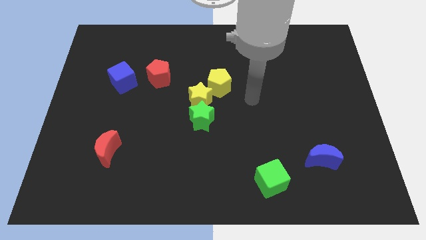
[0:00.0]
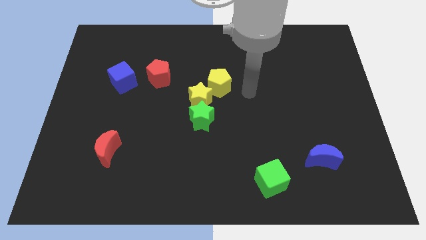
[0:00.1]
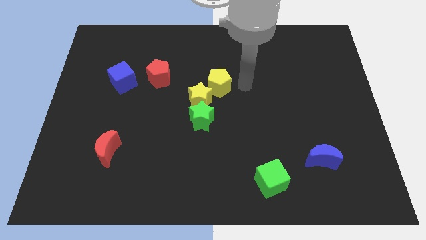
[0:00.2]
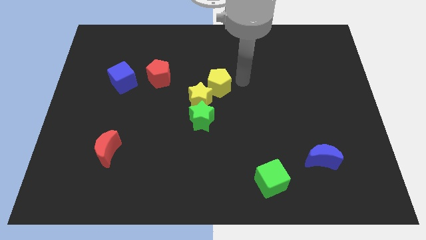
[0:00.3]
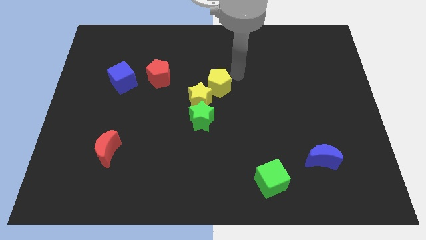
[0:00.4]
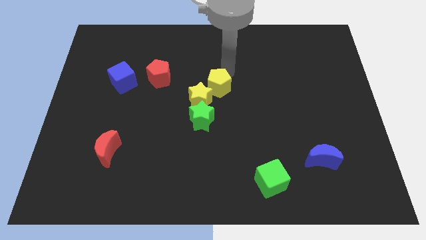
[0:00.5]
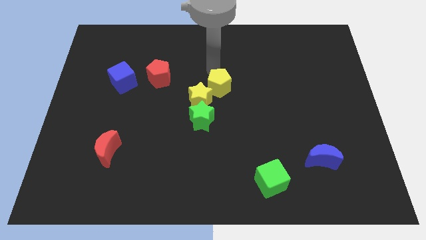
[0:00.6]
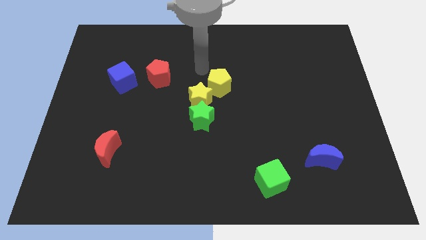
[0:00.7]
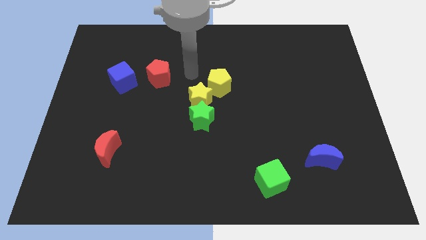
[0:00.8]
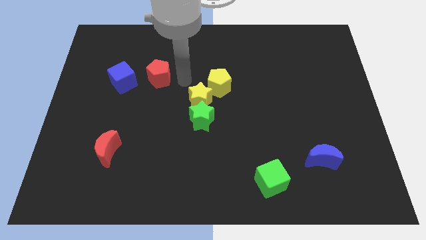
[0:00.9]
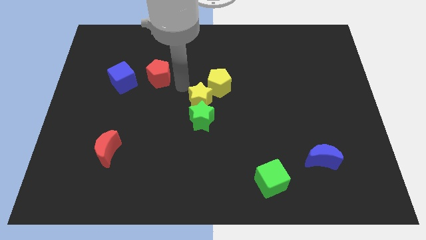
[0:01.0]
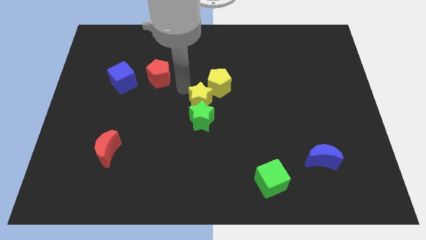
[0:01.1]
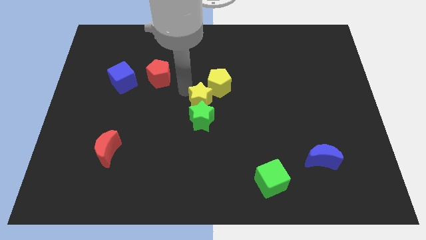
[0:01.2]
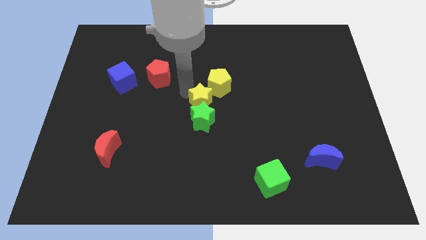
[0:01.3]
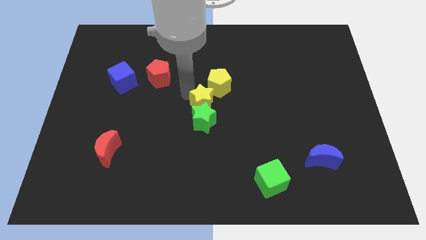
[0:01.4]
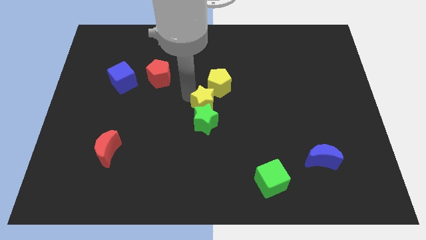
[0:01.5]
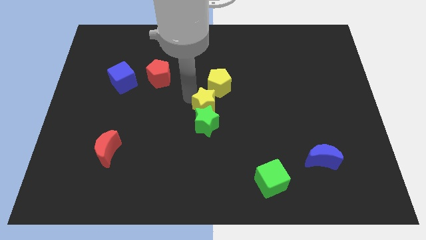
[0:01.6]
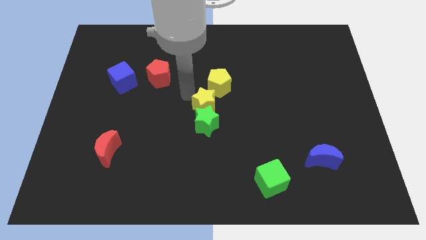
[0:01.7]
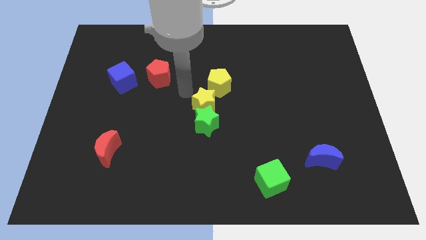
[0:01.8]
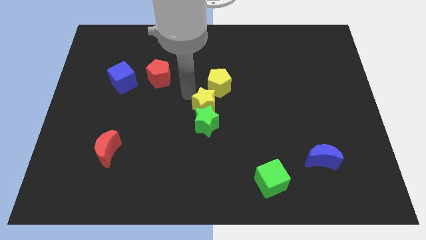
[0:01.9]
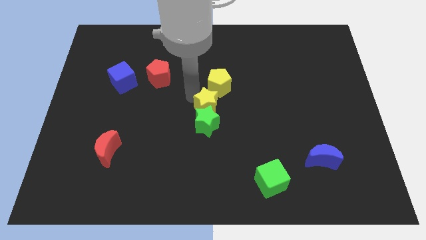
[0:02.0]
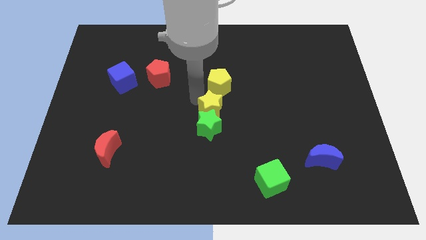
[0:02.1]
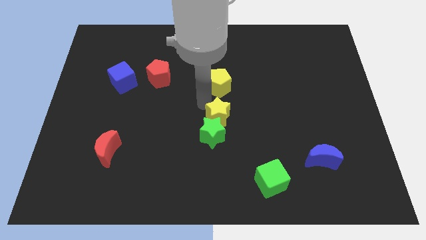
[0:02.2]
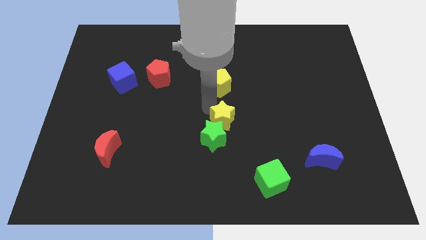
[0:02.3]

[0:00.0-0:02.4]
push the yellow star down and then to the right a bit

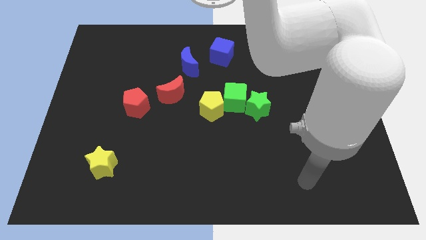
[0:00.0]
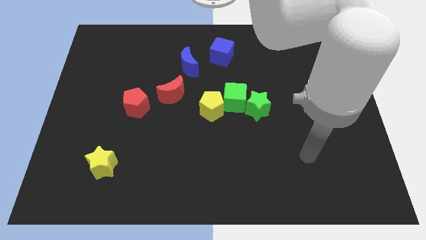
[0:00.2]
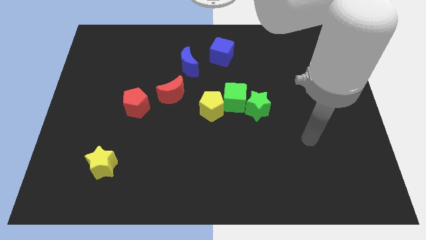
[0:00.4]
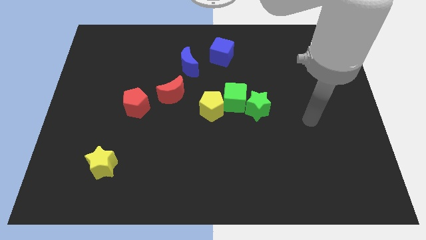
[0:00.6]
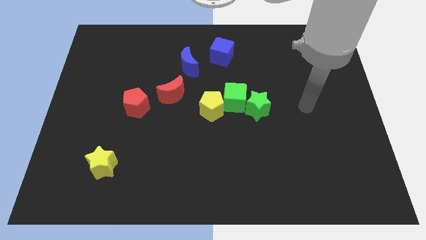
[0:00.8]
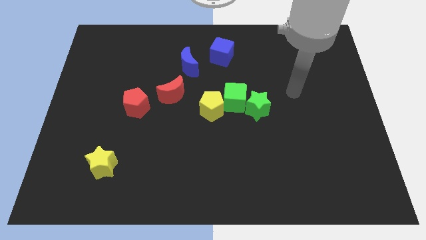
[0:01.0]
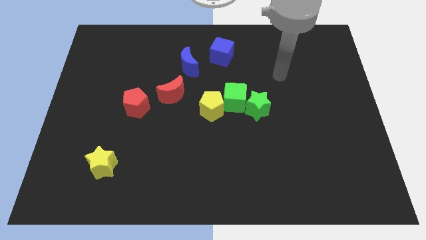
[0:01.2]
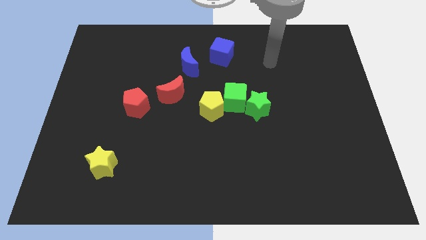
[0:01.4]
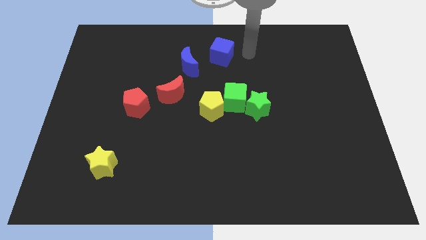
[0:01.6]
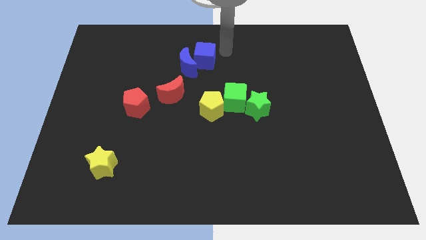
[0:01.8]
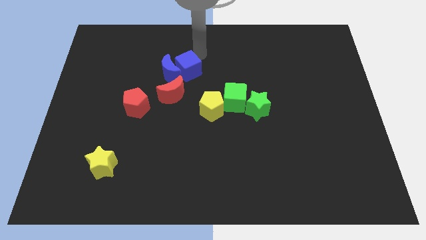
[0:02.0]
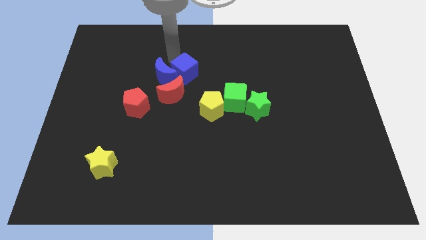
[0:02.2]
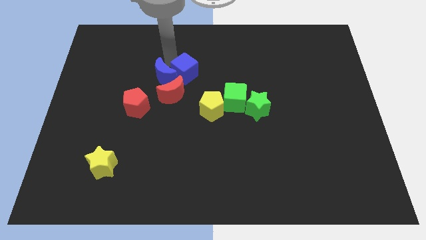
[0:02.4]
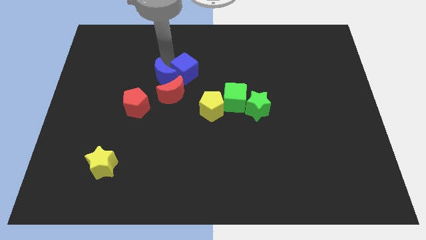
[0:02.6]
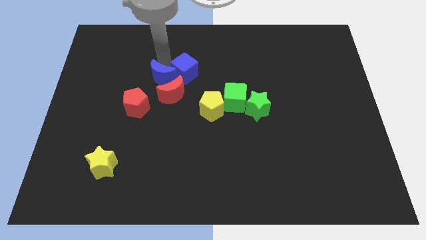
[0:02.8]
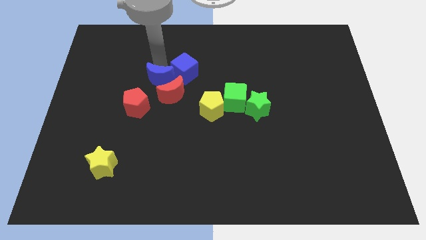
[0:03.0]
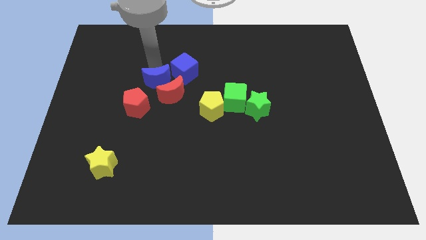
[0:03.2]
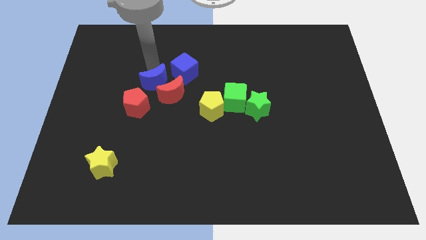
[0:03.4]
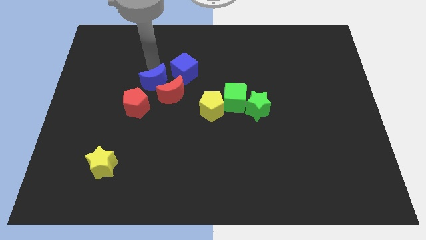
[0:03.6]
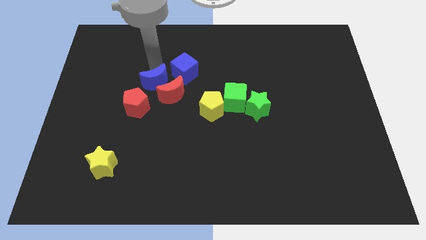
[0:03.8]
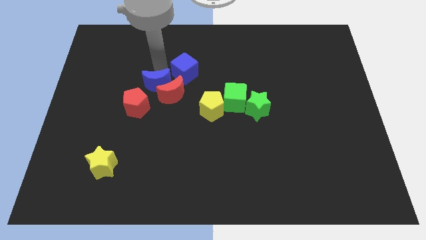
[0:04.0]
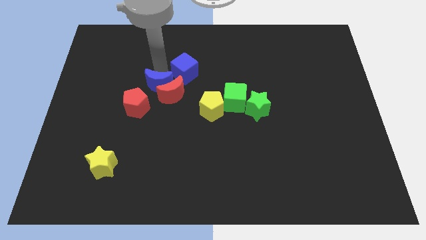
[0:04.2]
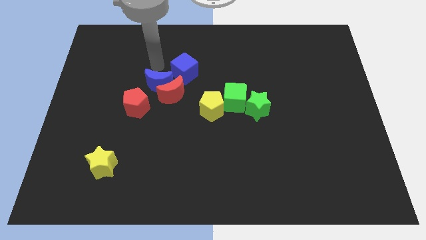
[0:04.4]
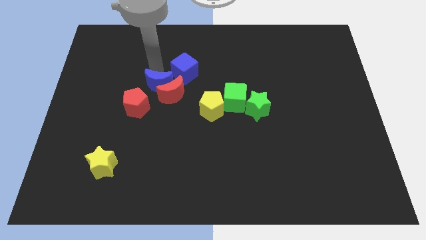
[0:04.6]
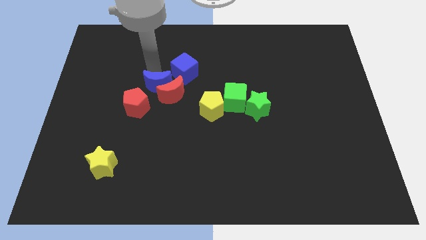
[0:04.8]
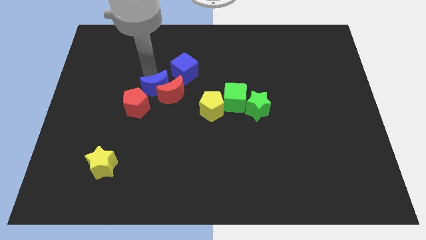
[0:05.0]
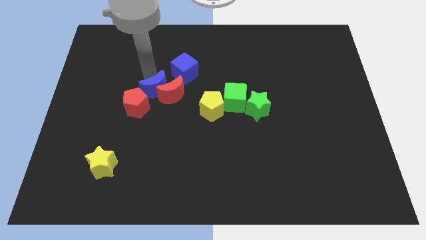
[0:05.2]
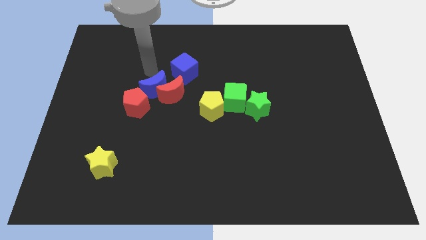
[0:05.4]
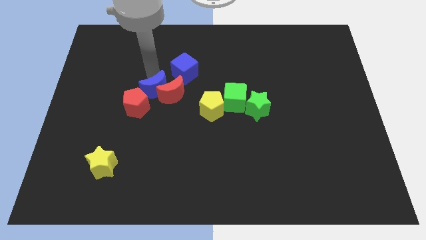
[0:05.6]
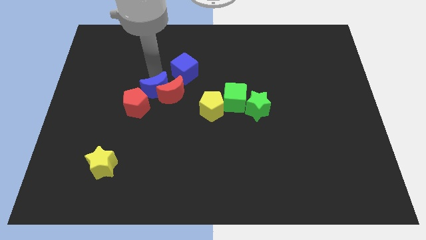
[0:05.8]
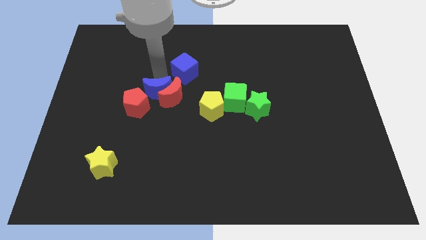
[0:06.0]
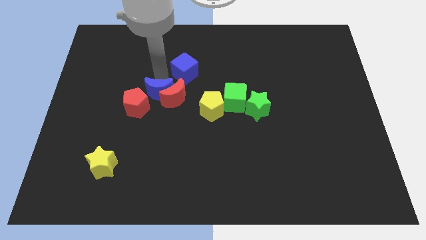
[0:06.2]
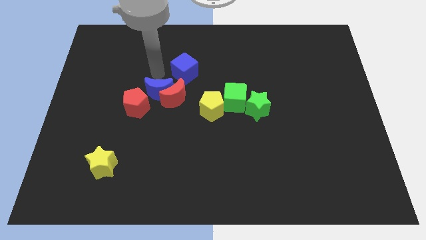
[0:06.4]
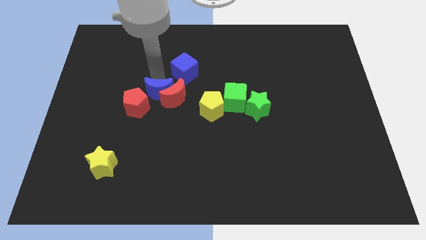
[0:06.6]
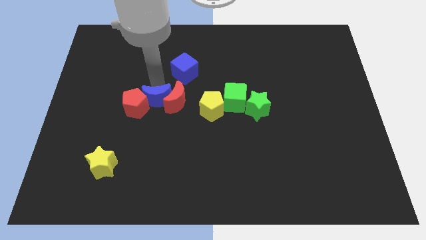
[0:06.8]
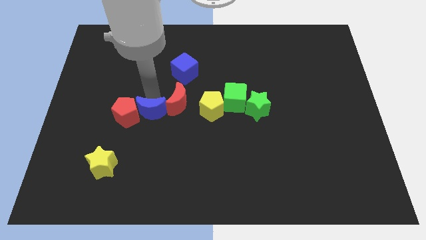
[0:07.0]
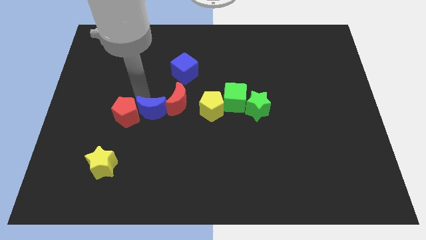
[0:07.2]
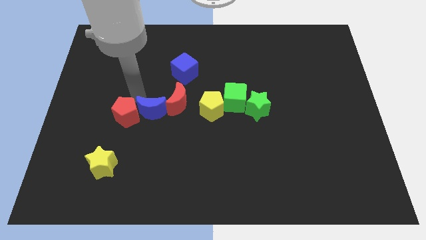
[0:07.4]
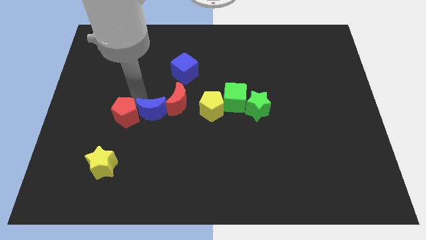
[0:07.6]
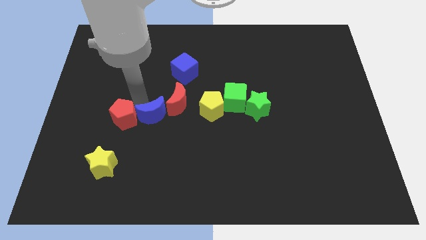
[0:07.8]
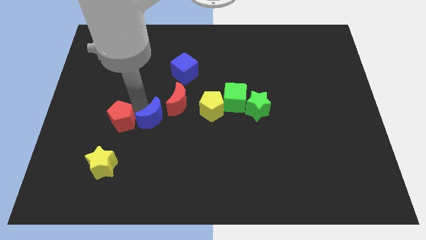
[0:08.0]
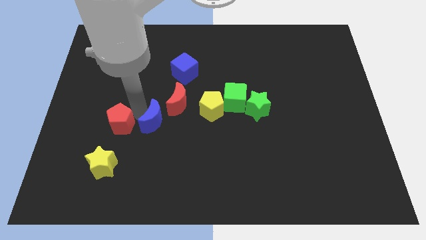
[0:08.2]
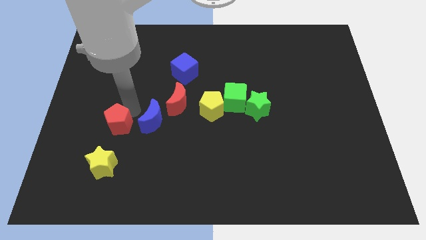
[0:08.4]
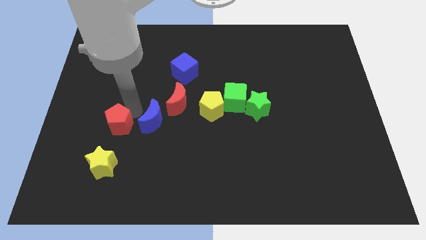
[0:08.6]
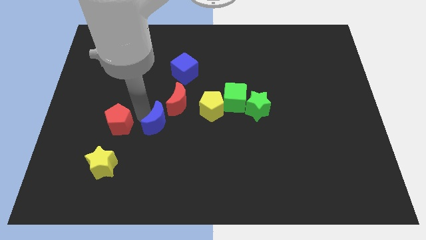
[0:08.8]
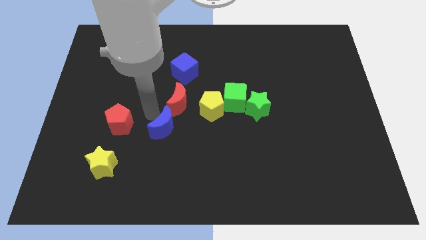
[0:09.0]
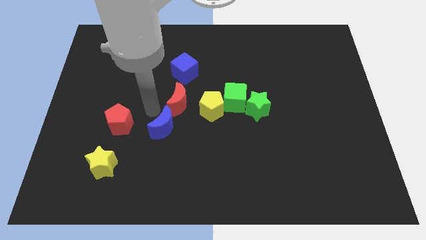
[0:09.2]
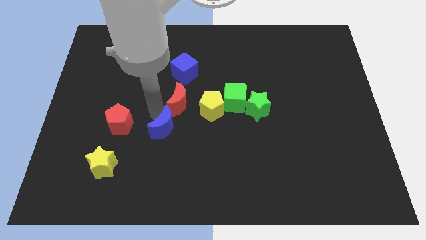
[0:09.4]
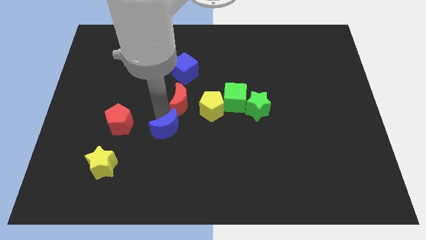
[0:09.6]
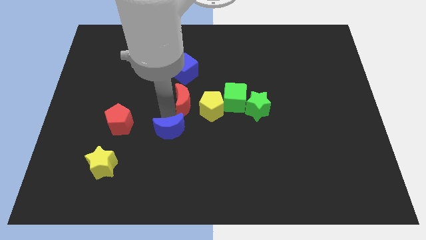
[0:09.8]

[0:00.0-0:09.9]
move the blue moon down

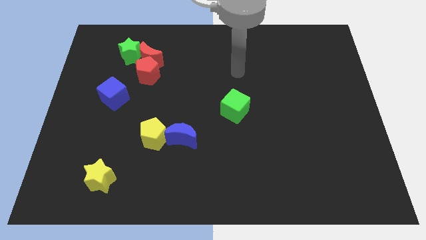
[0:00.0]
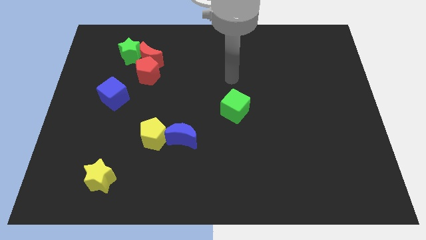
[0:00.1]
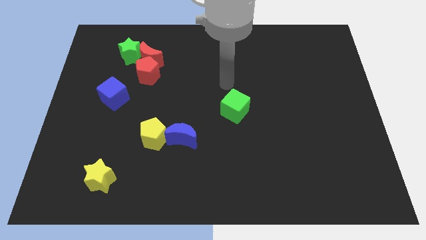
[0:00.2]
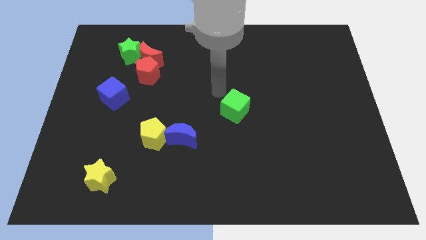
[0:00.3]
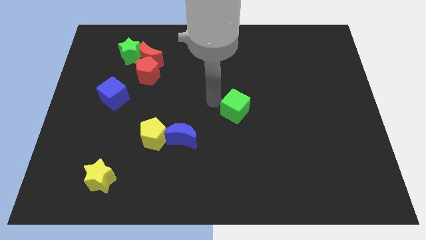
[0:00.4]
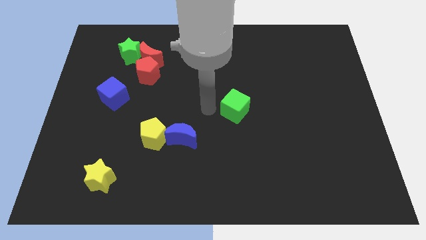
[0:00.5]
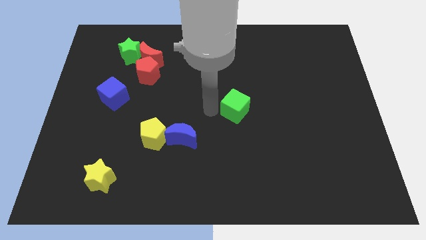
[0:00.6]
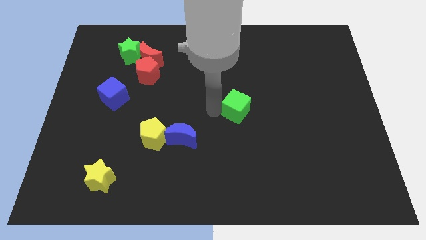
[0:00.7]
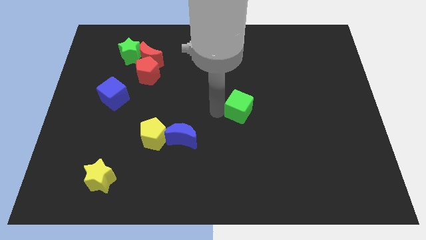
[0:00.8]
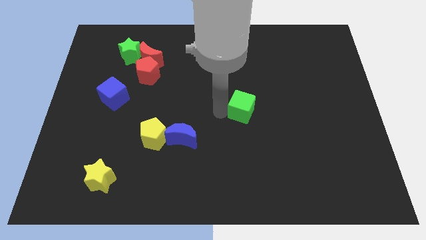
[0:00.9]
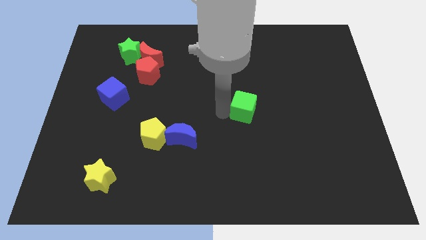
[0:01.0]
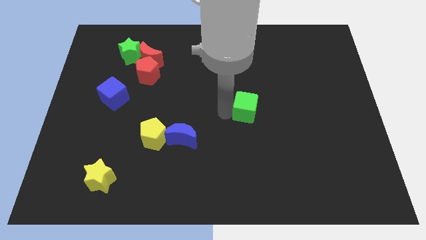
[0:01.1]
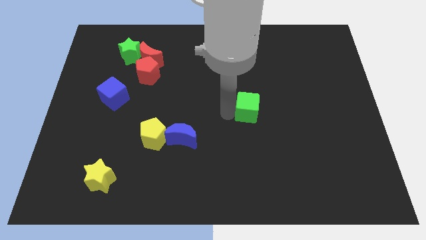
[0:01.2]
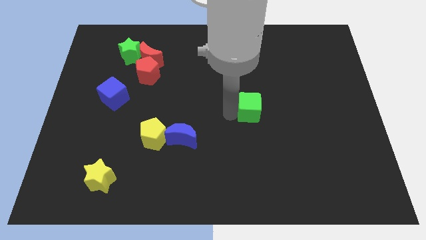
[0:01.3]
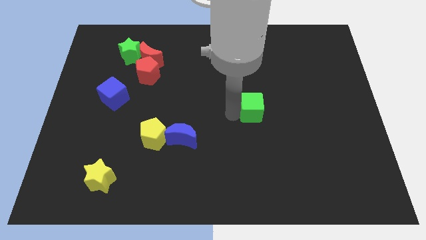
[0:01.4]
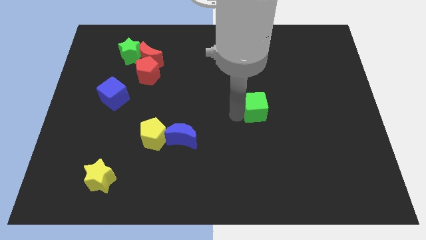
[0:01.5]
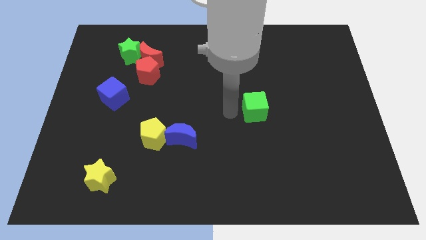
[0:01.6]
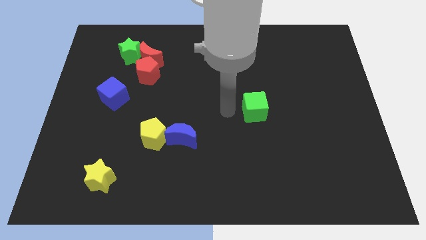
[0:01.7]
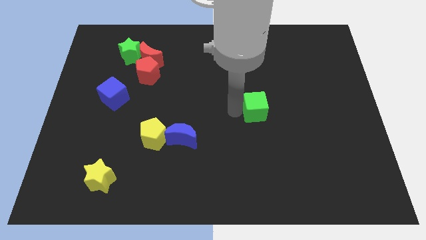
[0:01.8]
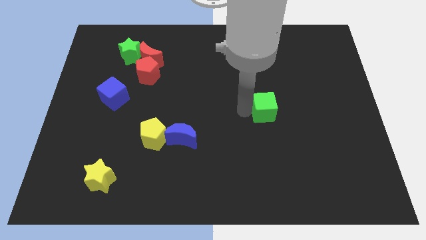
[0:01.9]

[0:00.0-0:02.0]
move the green cube slightly right
